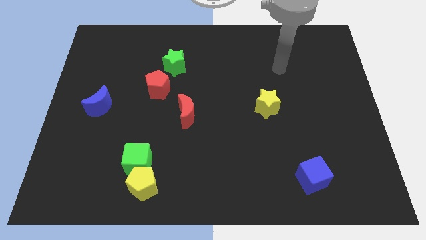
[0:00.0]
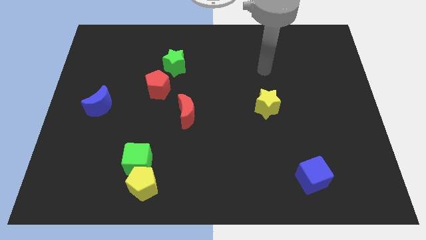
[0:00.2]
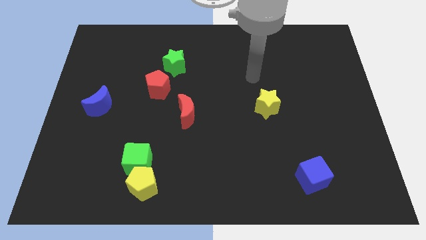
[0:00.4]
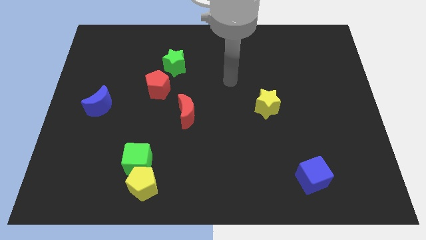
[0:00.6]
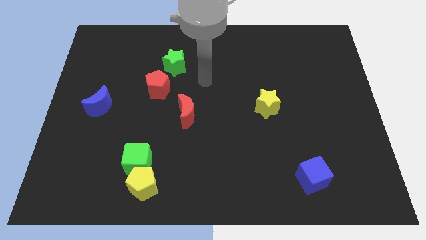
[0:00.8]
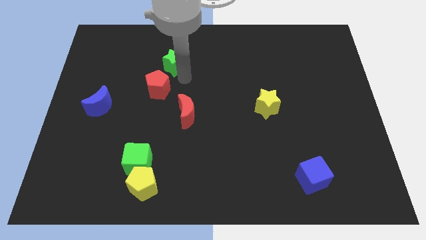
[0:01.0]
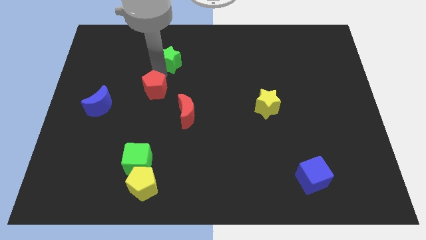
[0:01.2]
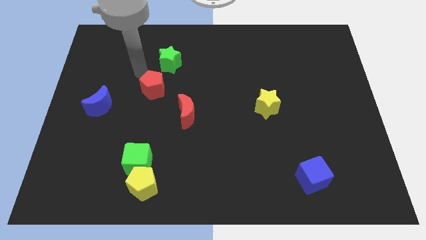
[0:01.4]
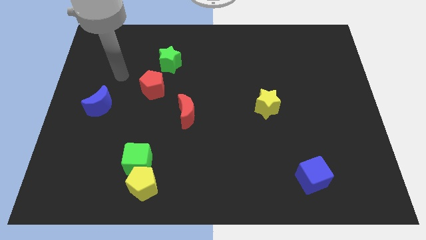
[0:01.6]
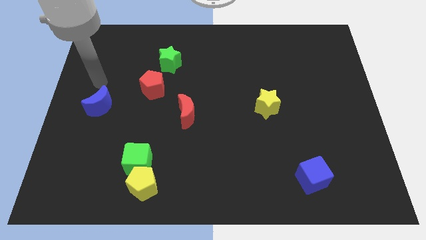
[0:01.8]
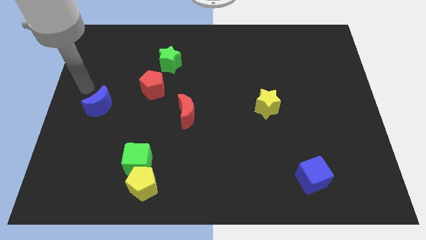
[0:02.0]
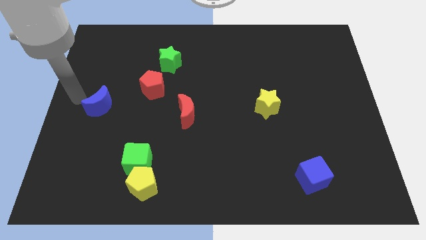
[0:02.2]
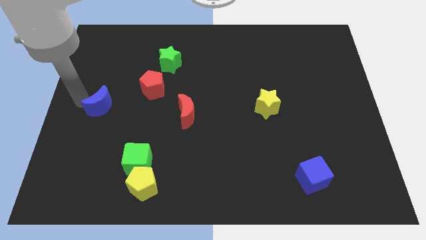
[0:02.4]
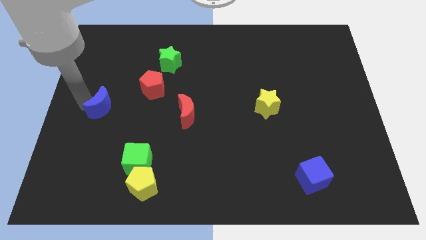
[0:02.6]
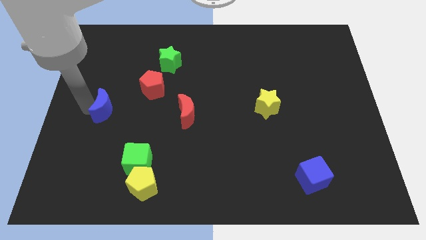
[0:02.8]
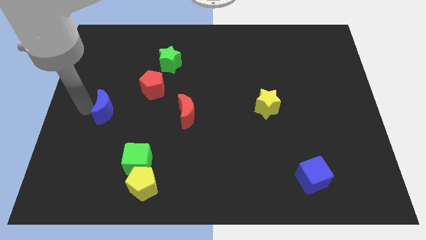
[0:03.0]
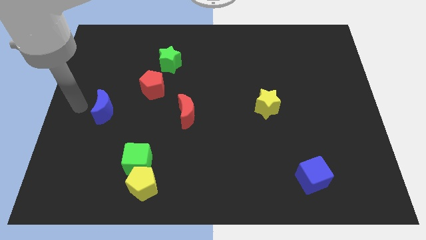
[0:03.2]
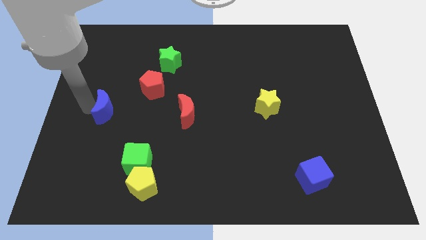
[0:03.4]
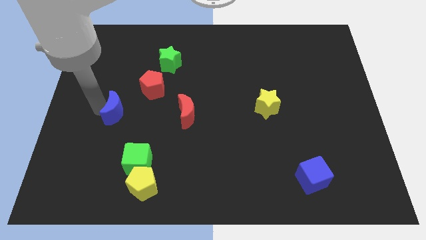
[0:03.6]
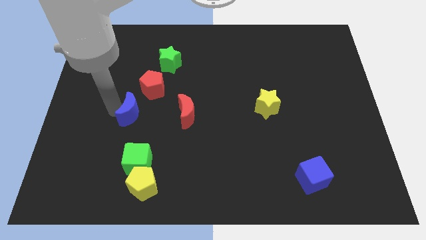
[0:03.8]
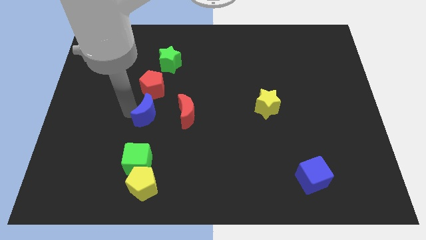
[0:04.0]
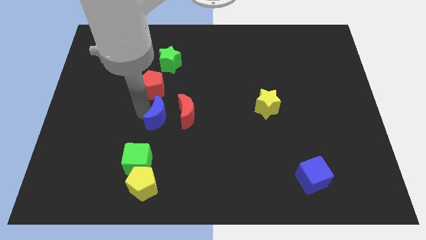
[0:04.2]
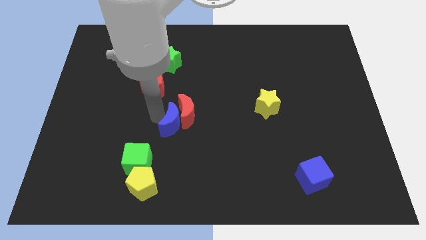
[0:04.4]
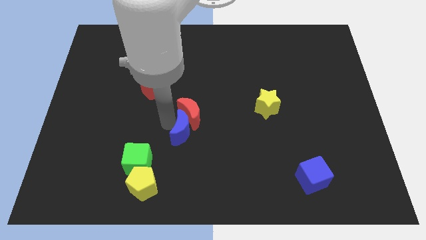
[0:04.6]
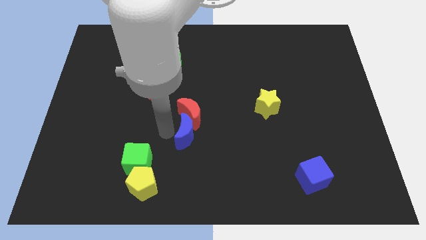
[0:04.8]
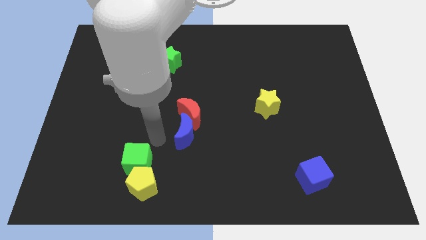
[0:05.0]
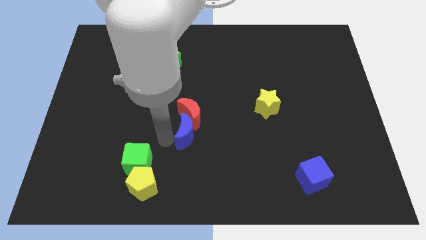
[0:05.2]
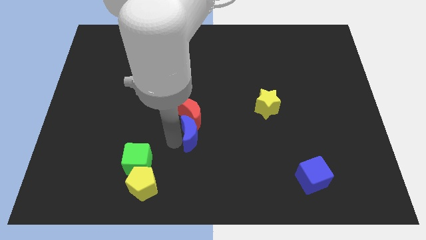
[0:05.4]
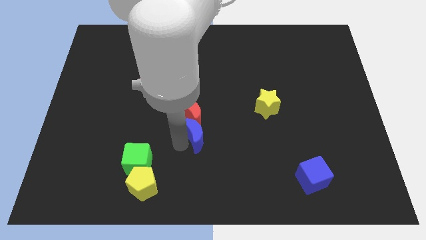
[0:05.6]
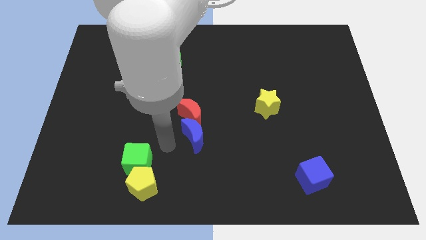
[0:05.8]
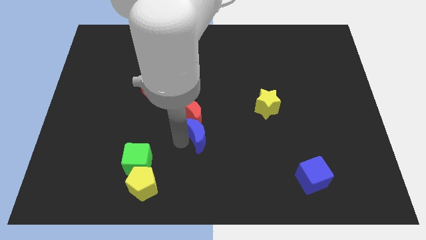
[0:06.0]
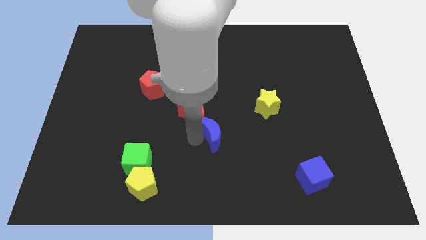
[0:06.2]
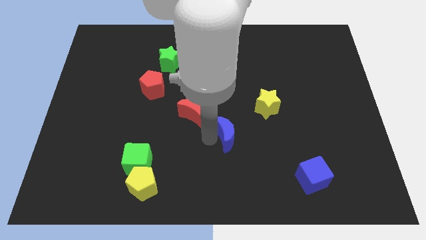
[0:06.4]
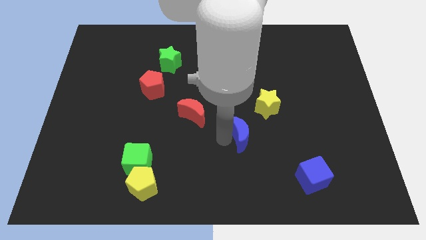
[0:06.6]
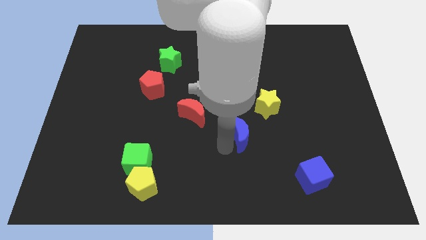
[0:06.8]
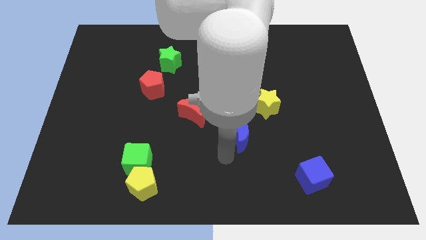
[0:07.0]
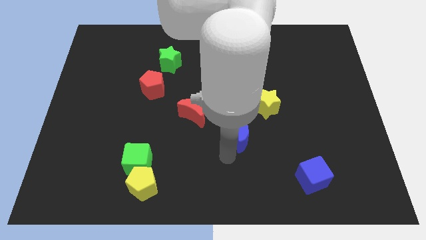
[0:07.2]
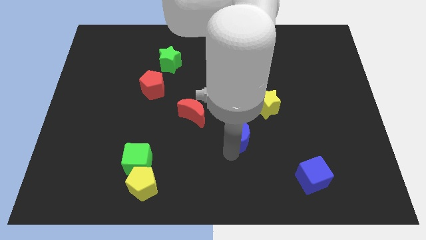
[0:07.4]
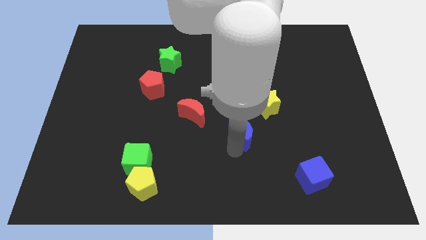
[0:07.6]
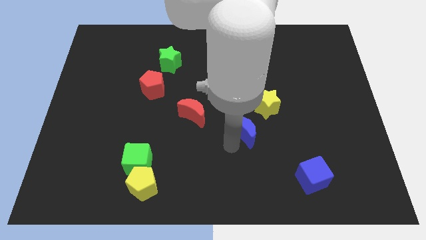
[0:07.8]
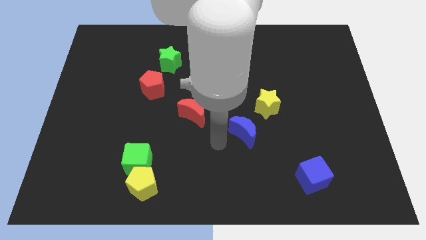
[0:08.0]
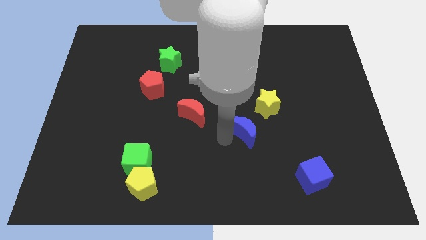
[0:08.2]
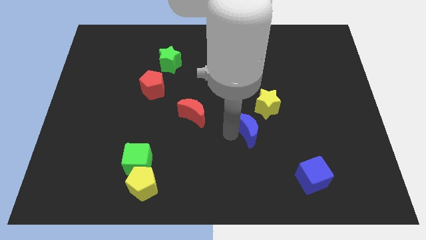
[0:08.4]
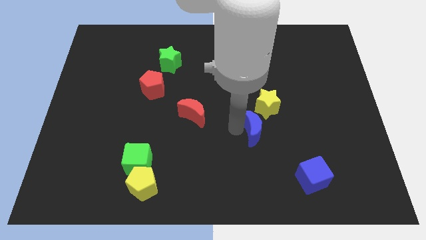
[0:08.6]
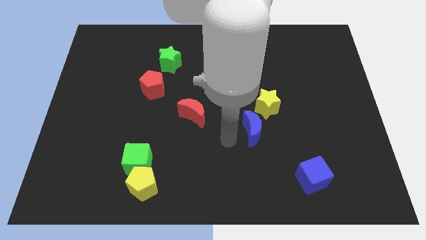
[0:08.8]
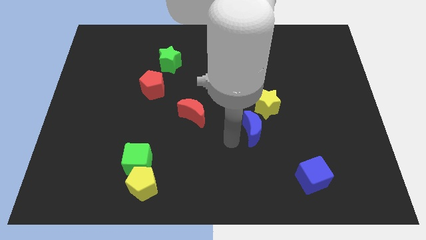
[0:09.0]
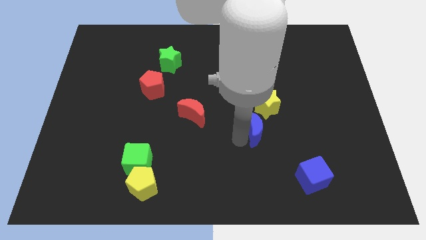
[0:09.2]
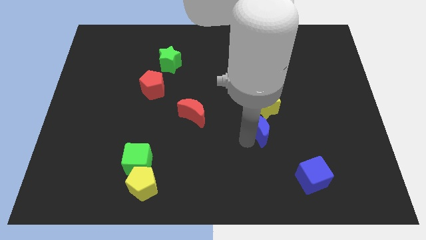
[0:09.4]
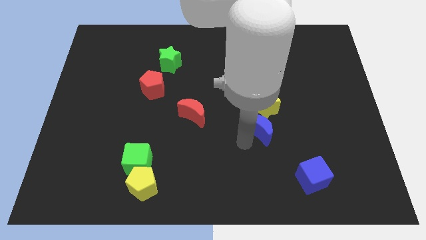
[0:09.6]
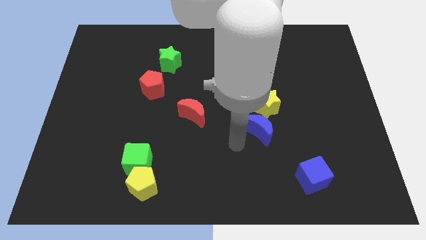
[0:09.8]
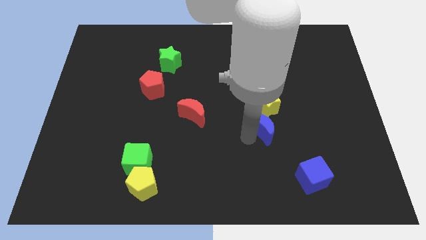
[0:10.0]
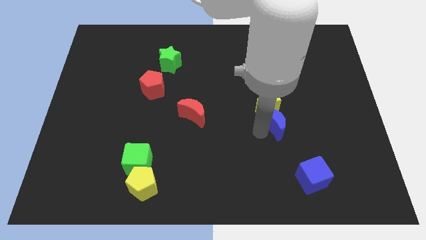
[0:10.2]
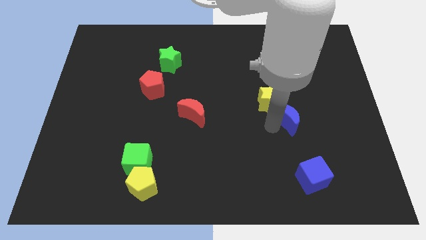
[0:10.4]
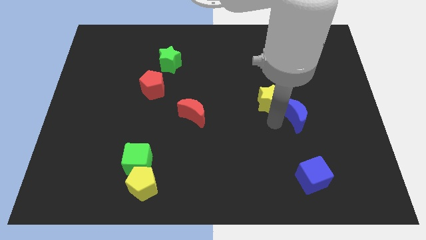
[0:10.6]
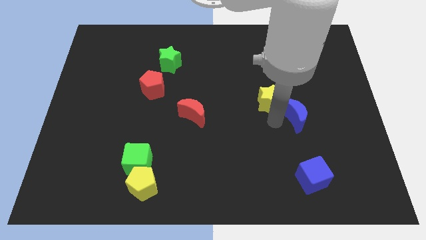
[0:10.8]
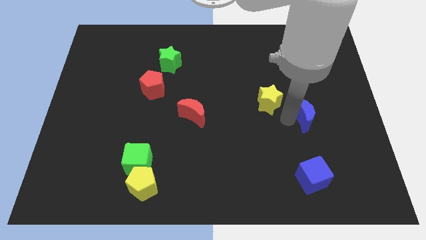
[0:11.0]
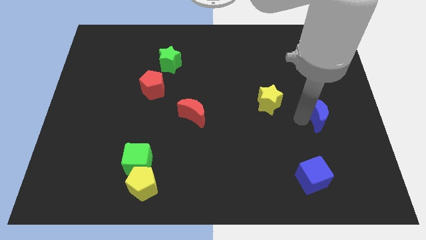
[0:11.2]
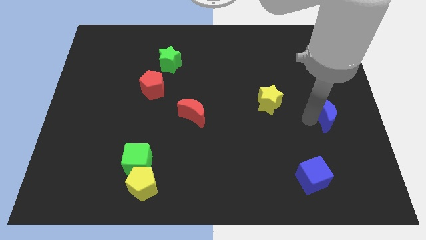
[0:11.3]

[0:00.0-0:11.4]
put the blue moon to the right side of the board

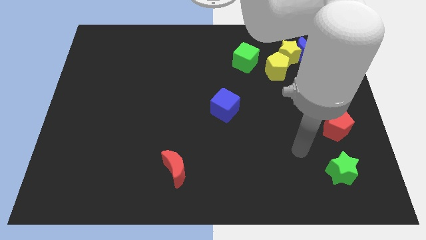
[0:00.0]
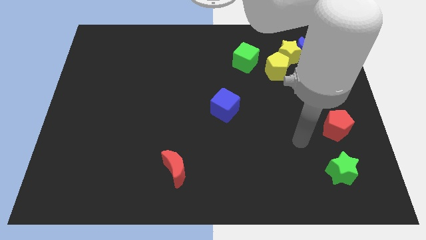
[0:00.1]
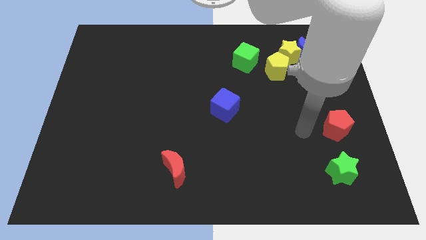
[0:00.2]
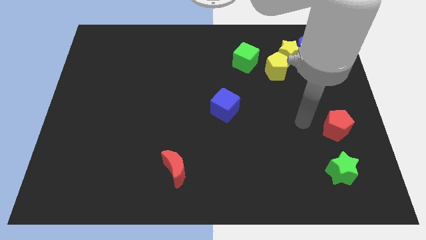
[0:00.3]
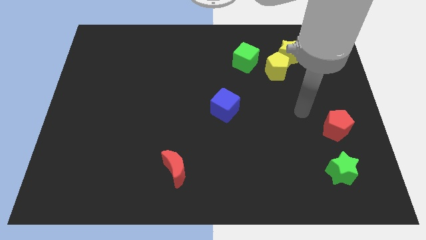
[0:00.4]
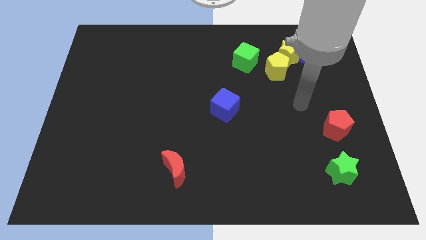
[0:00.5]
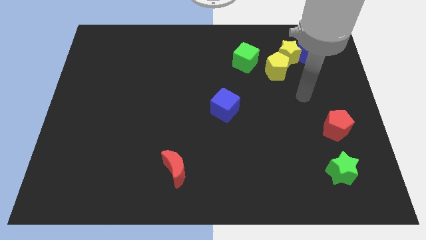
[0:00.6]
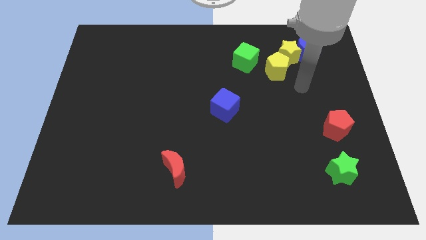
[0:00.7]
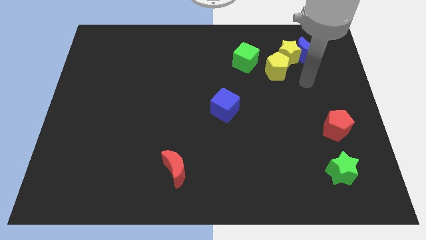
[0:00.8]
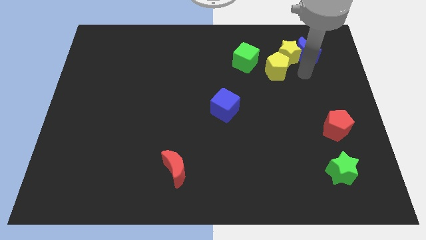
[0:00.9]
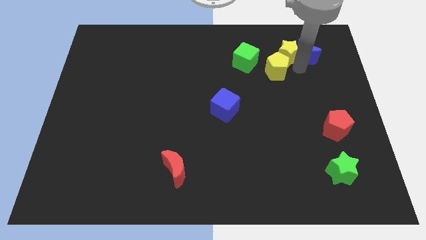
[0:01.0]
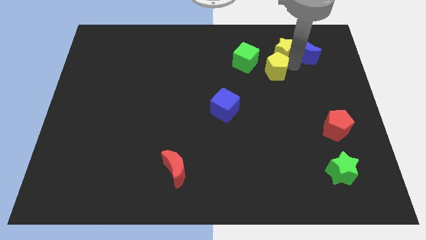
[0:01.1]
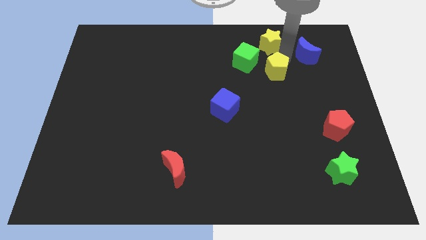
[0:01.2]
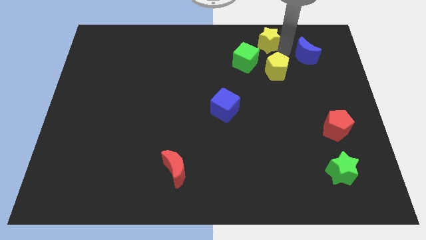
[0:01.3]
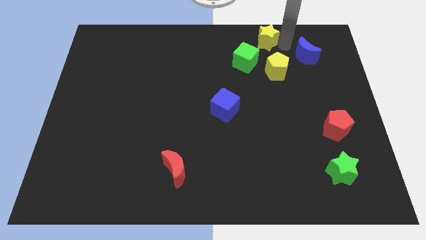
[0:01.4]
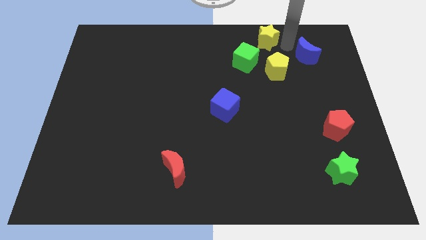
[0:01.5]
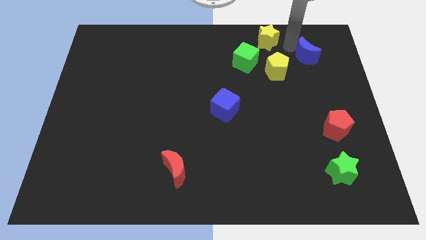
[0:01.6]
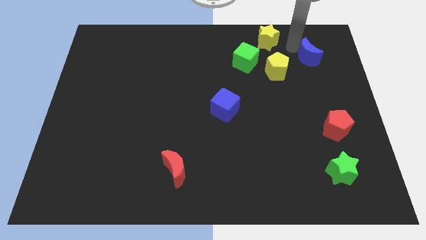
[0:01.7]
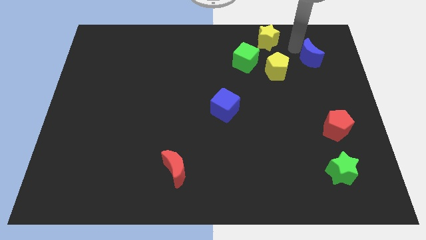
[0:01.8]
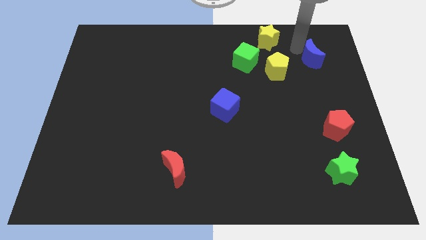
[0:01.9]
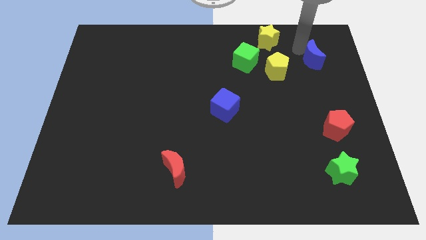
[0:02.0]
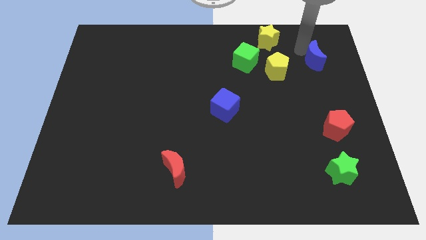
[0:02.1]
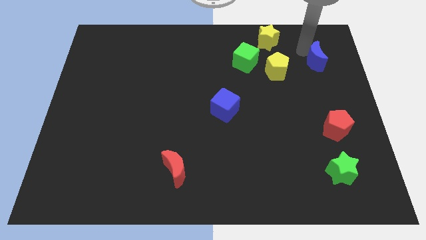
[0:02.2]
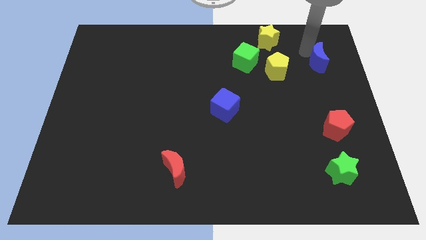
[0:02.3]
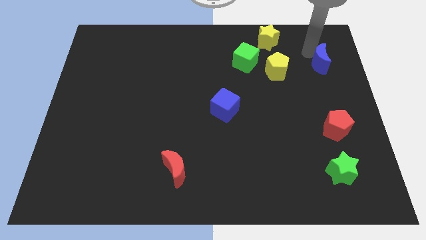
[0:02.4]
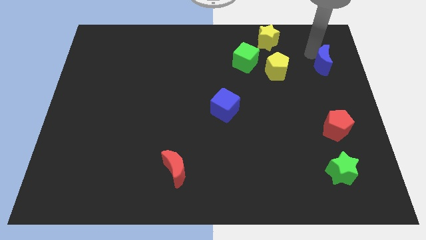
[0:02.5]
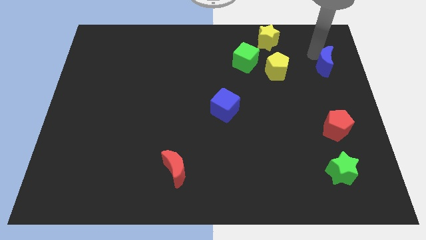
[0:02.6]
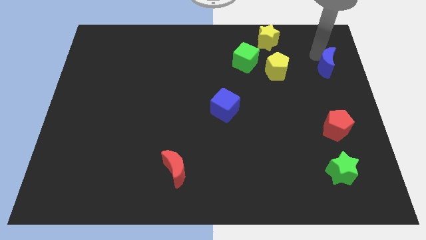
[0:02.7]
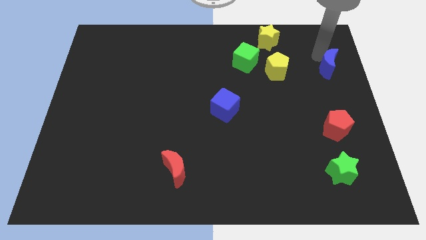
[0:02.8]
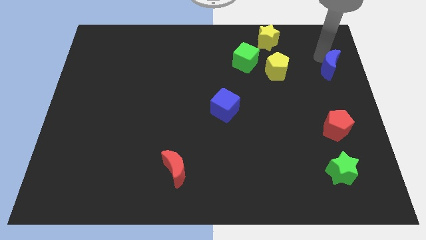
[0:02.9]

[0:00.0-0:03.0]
slide the blue moon to the center right
